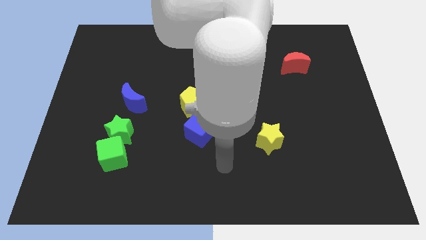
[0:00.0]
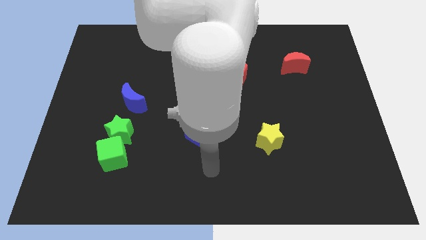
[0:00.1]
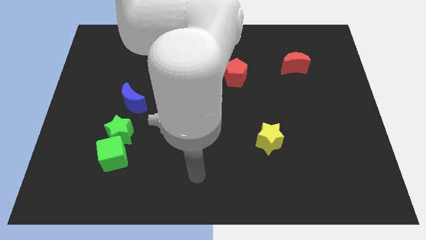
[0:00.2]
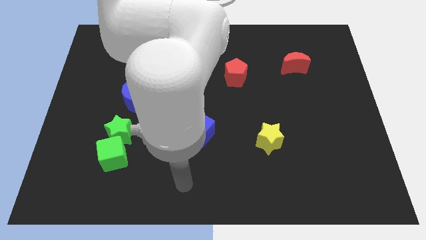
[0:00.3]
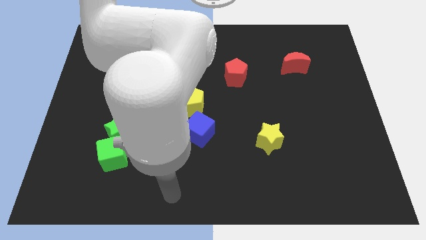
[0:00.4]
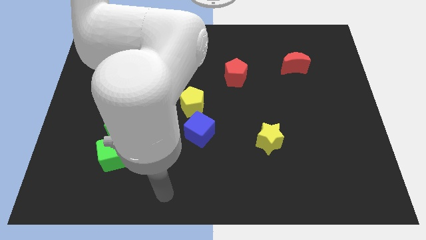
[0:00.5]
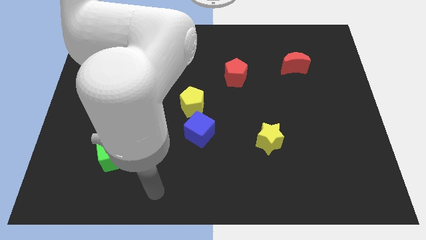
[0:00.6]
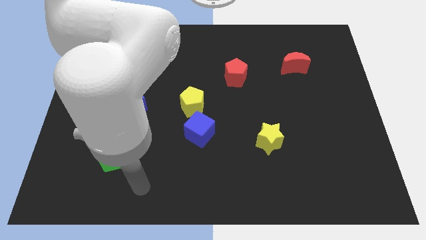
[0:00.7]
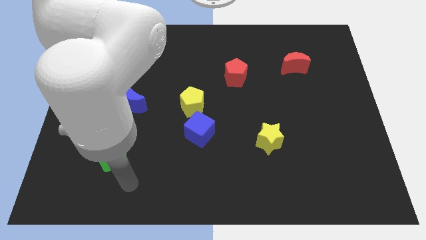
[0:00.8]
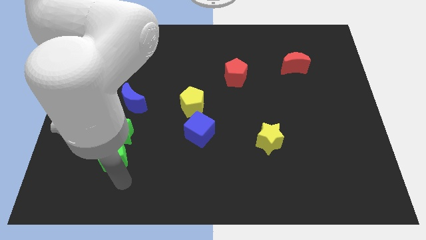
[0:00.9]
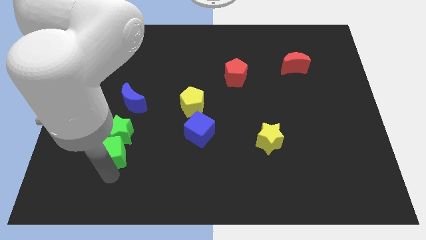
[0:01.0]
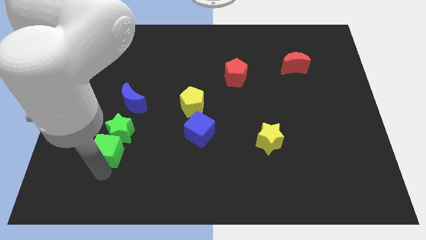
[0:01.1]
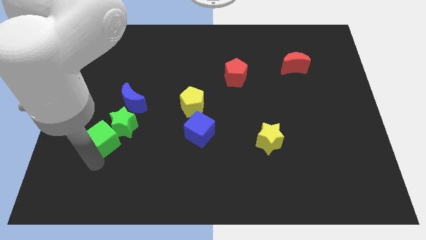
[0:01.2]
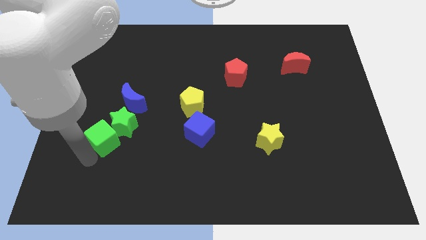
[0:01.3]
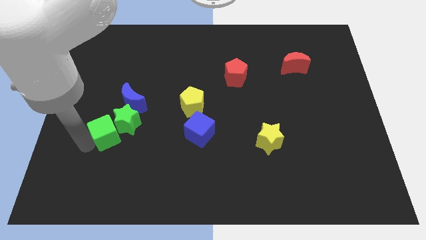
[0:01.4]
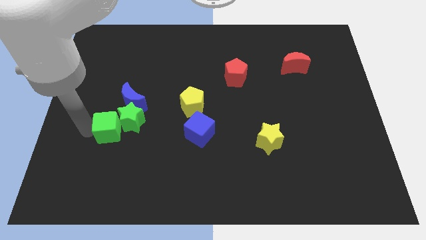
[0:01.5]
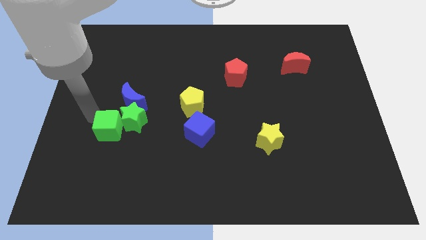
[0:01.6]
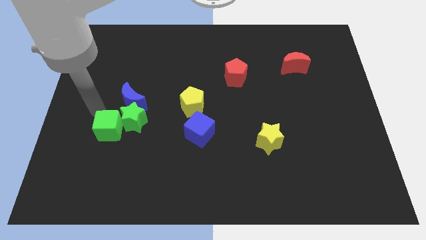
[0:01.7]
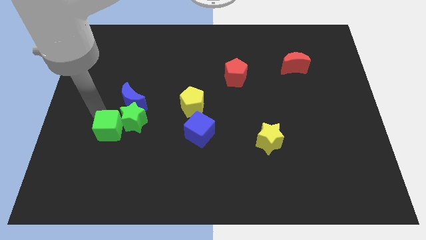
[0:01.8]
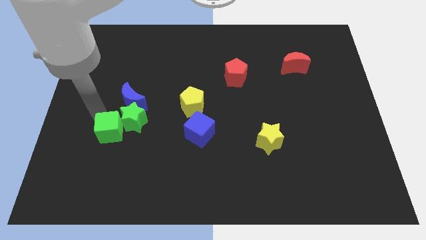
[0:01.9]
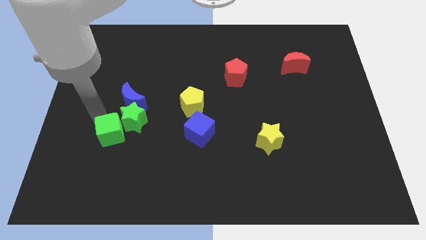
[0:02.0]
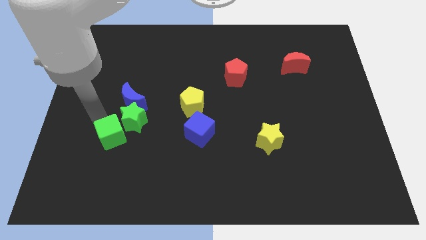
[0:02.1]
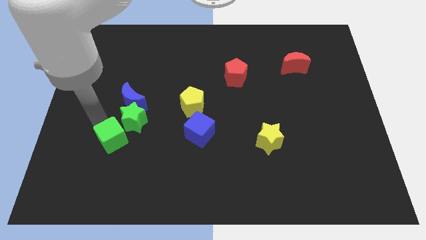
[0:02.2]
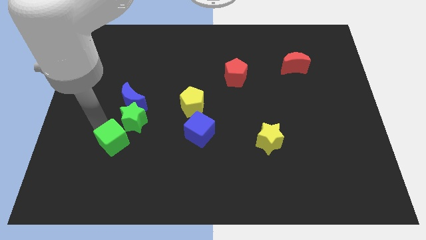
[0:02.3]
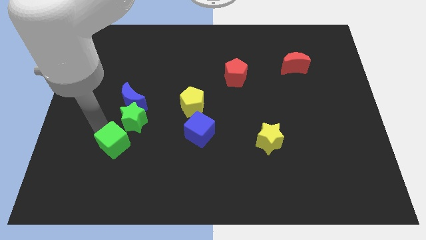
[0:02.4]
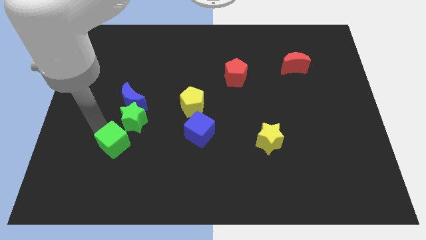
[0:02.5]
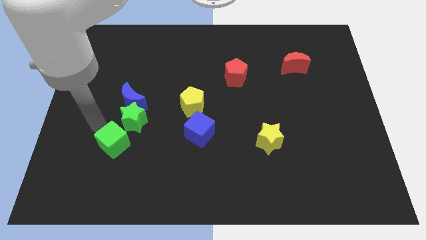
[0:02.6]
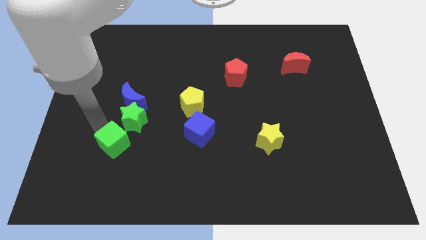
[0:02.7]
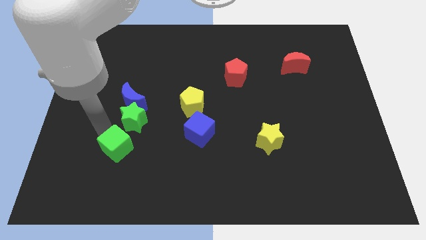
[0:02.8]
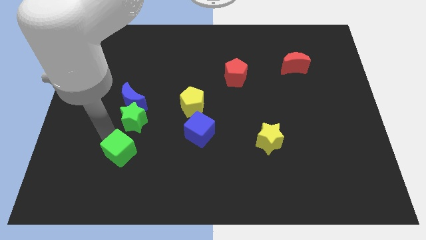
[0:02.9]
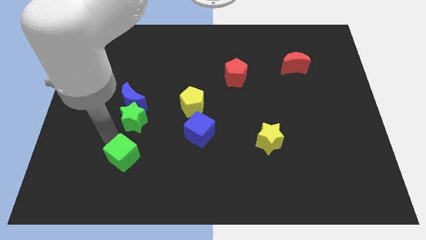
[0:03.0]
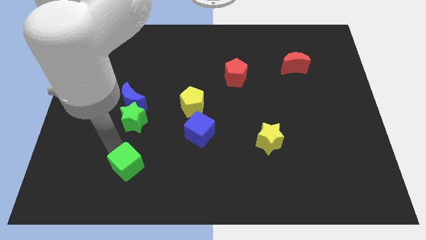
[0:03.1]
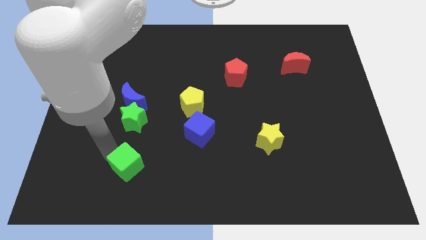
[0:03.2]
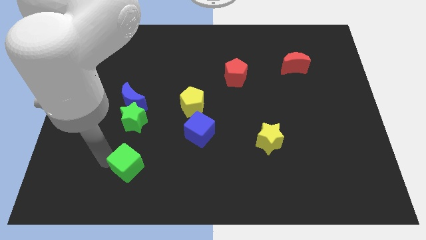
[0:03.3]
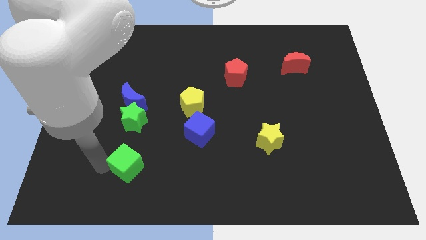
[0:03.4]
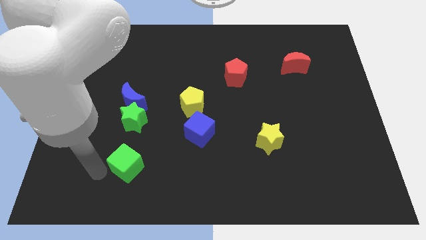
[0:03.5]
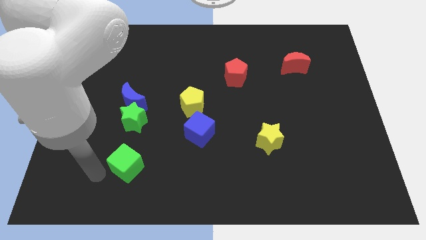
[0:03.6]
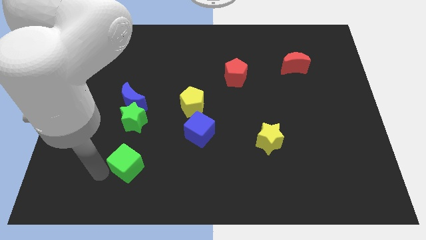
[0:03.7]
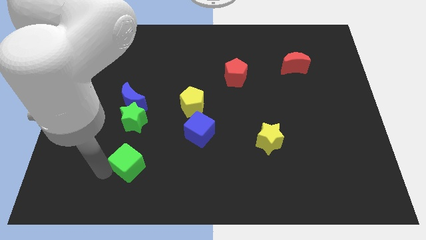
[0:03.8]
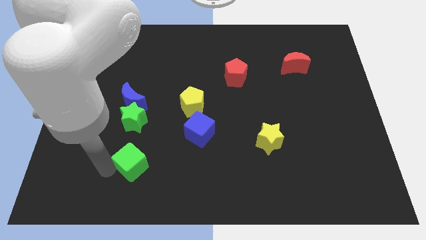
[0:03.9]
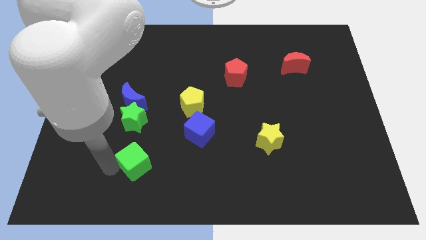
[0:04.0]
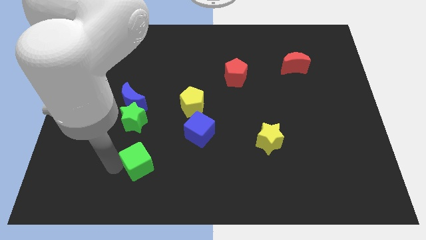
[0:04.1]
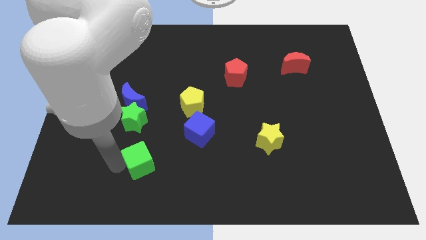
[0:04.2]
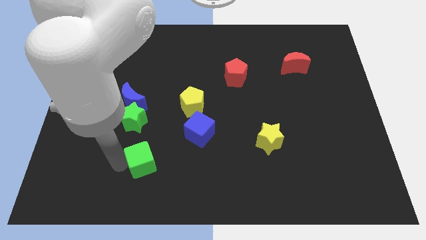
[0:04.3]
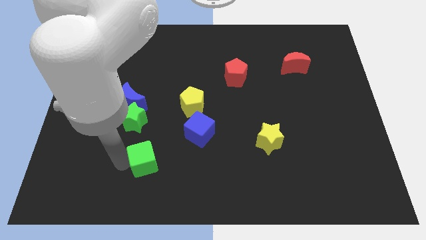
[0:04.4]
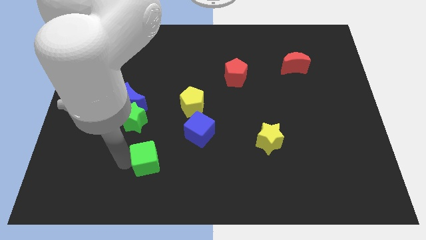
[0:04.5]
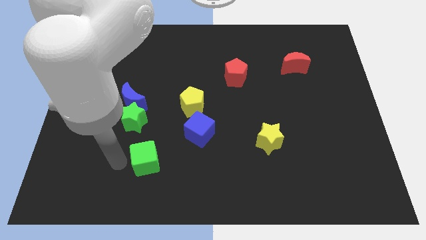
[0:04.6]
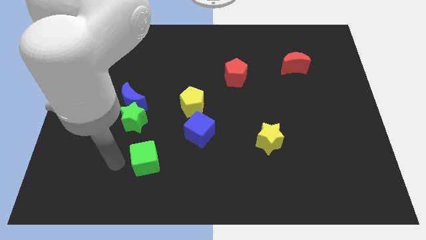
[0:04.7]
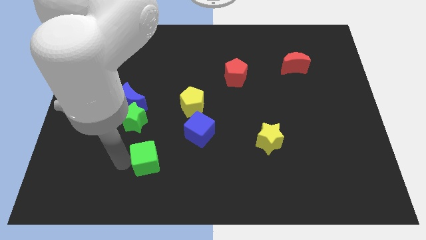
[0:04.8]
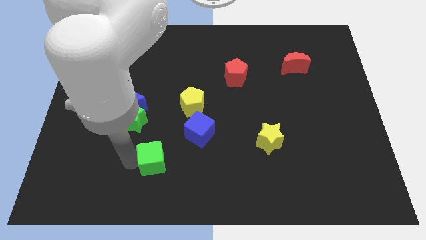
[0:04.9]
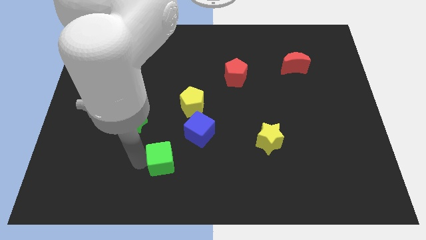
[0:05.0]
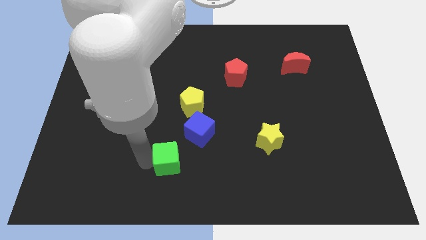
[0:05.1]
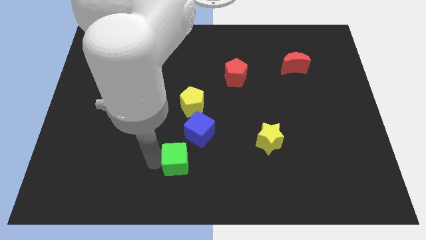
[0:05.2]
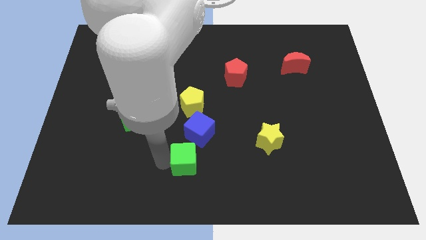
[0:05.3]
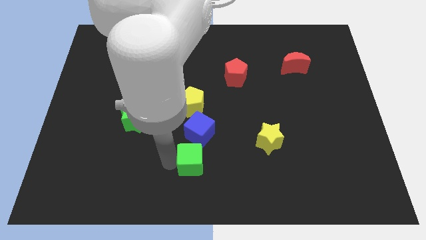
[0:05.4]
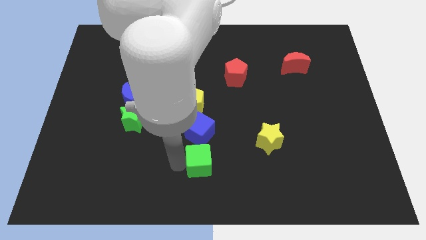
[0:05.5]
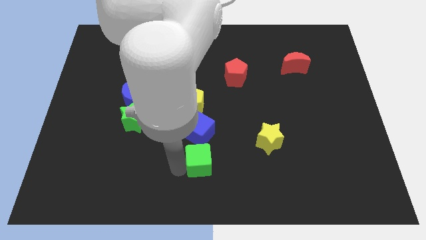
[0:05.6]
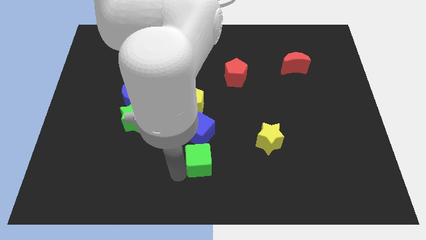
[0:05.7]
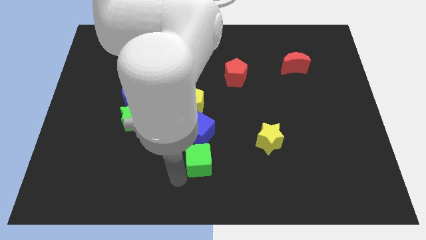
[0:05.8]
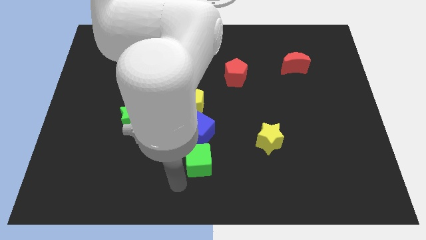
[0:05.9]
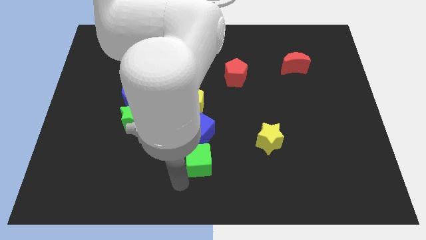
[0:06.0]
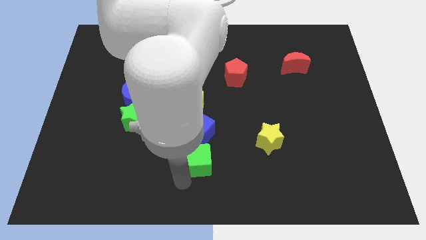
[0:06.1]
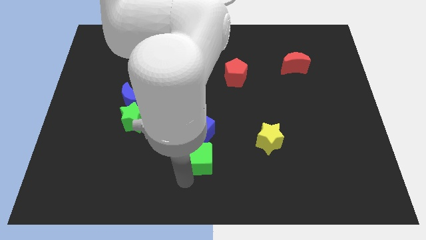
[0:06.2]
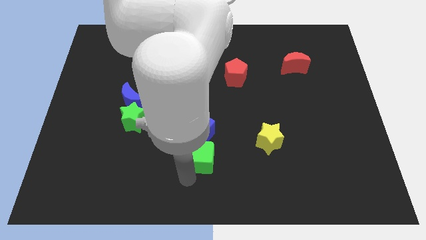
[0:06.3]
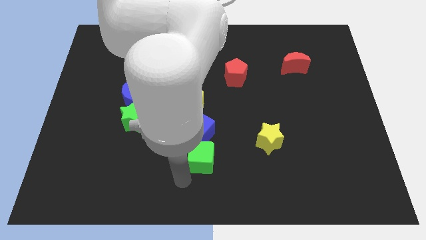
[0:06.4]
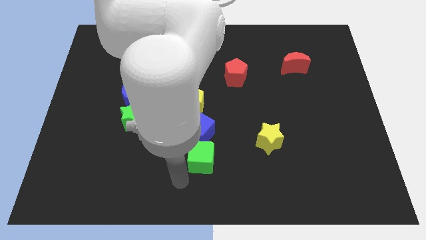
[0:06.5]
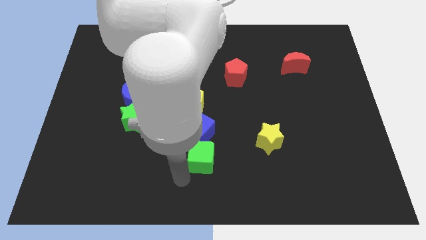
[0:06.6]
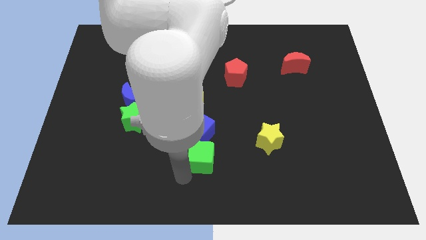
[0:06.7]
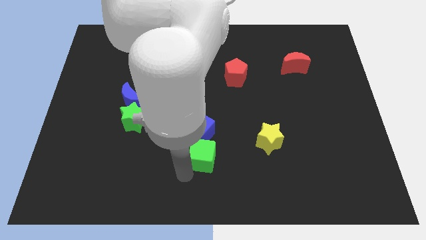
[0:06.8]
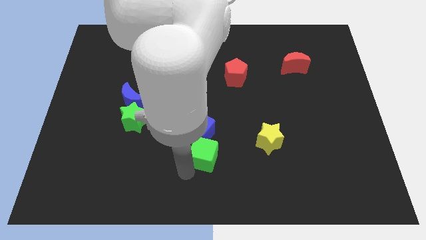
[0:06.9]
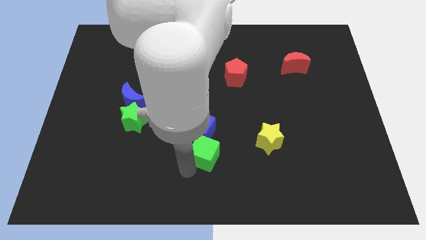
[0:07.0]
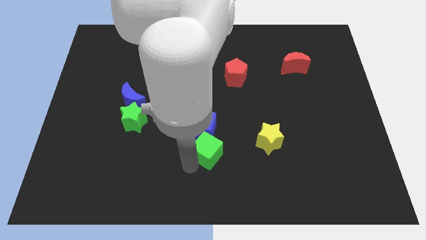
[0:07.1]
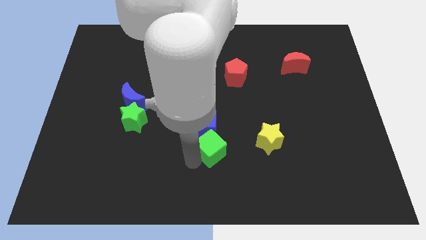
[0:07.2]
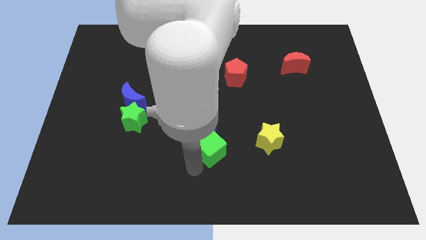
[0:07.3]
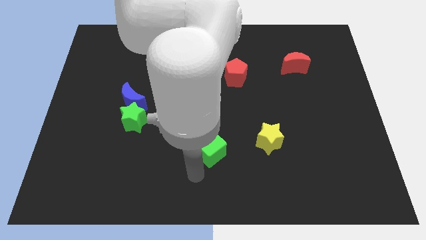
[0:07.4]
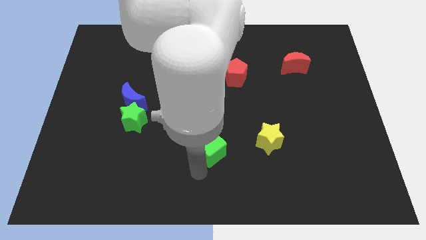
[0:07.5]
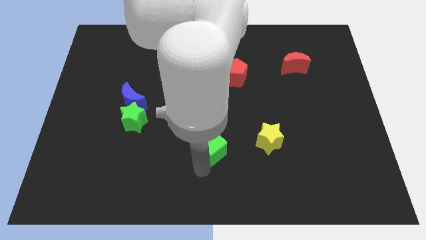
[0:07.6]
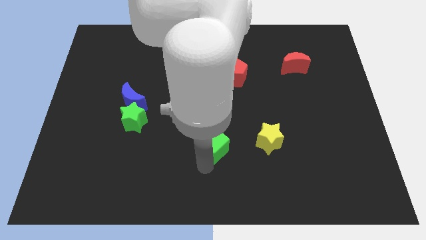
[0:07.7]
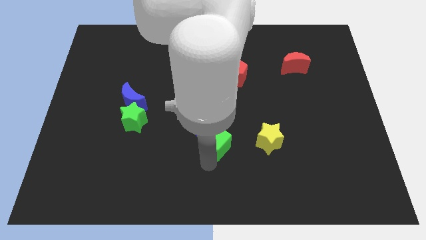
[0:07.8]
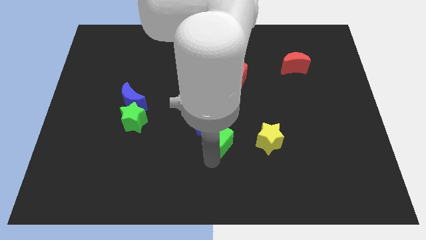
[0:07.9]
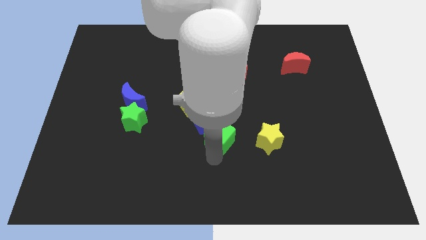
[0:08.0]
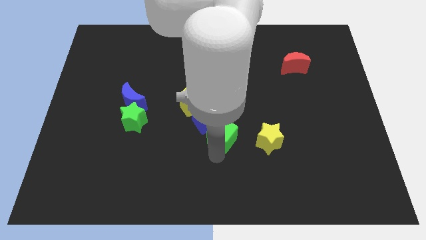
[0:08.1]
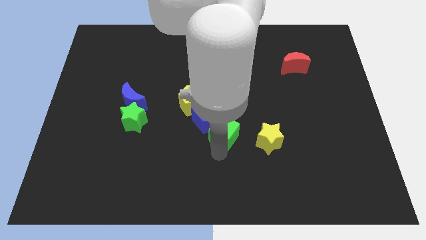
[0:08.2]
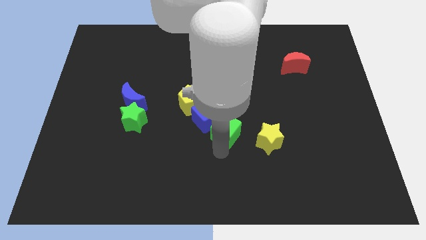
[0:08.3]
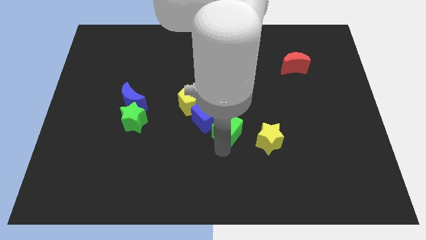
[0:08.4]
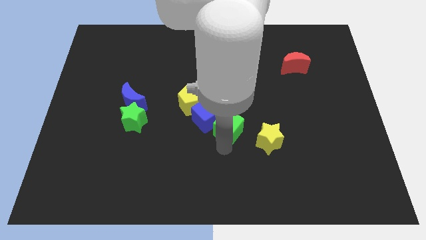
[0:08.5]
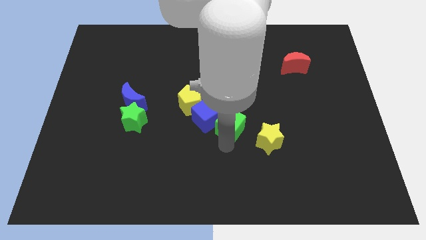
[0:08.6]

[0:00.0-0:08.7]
move the green cube below the red pentagon
